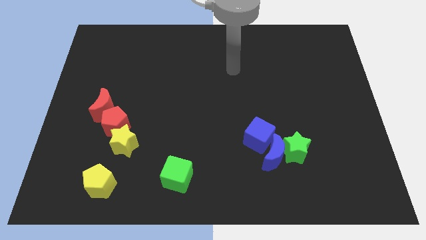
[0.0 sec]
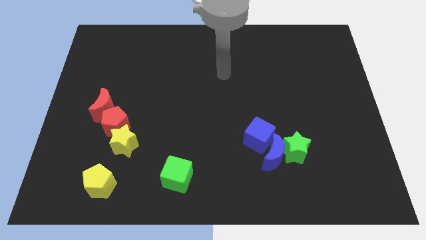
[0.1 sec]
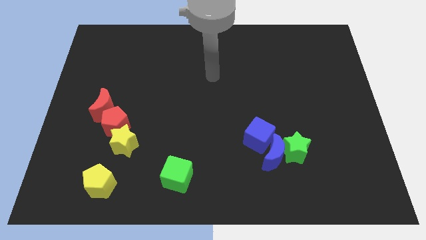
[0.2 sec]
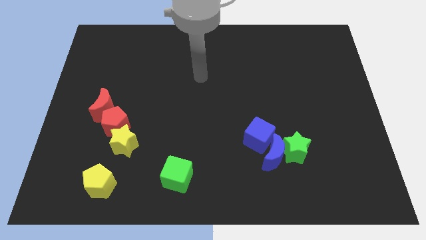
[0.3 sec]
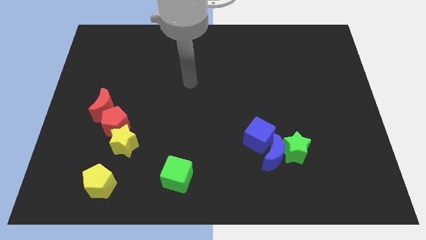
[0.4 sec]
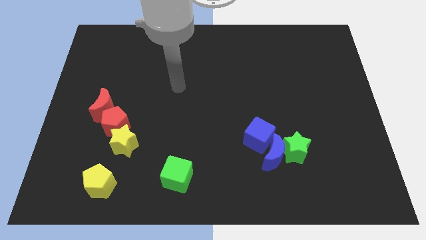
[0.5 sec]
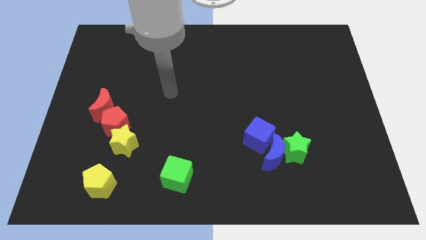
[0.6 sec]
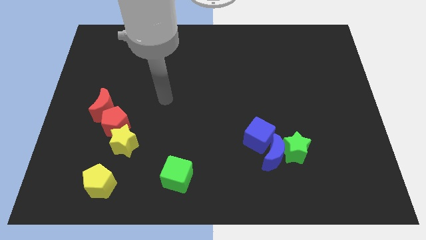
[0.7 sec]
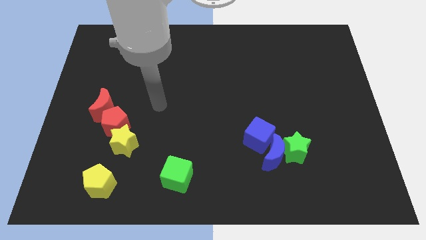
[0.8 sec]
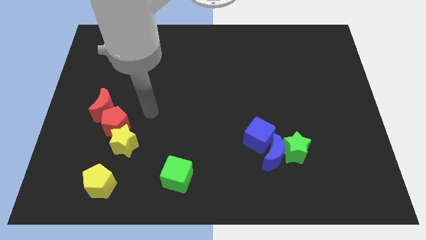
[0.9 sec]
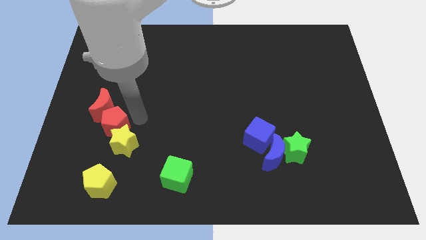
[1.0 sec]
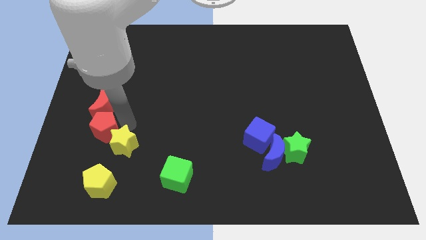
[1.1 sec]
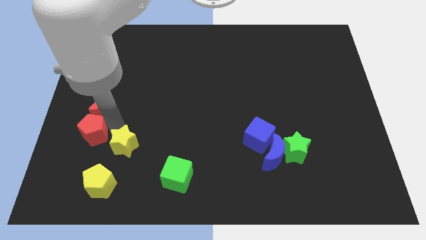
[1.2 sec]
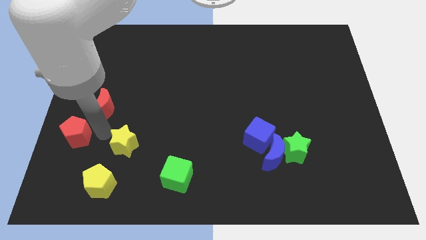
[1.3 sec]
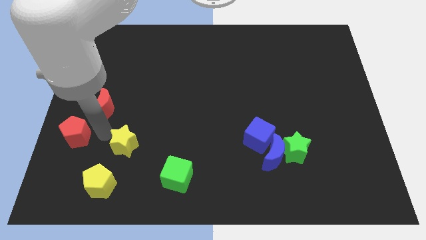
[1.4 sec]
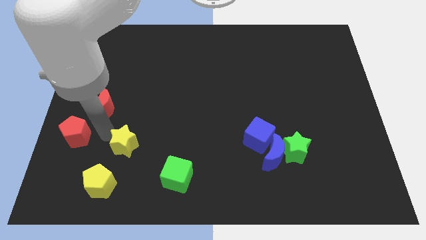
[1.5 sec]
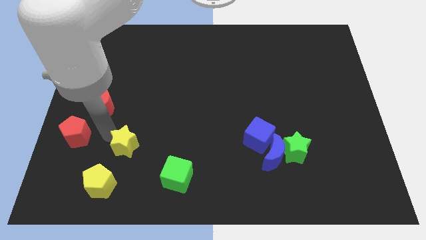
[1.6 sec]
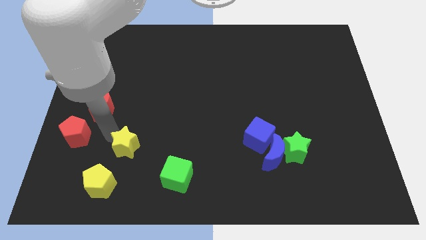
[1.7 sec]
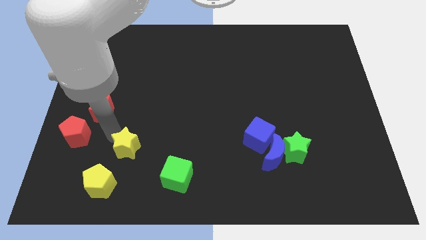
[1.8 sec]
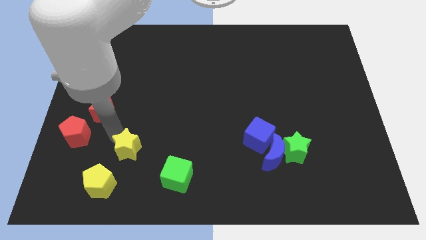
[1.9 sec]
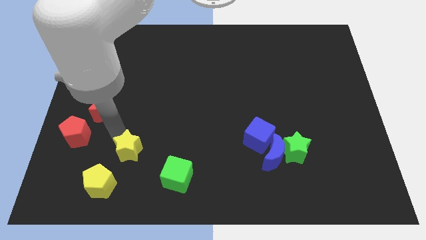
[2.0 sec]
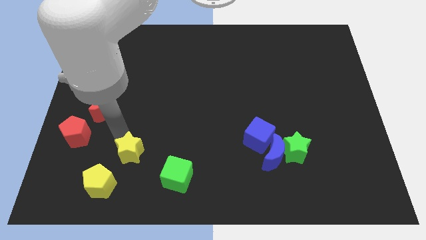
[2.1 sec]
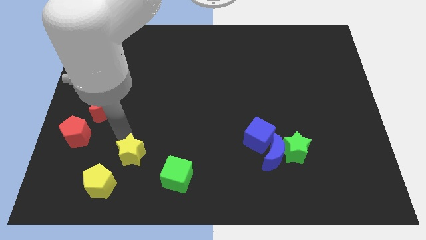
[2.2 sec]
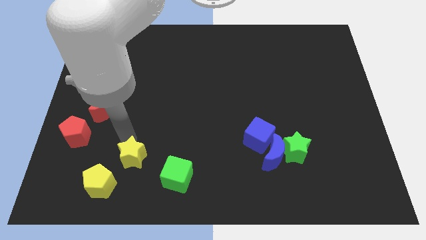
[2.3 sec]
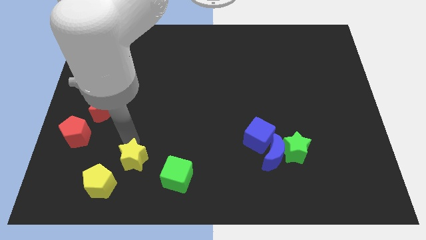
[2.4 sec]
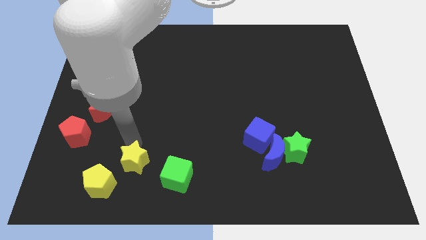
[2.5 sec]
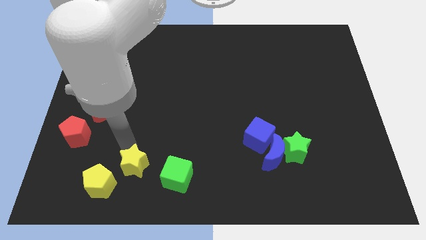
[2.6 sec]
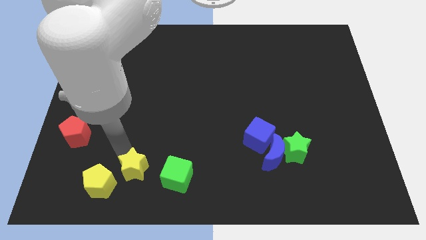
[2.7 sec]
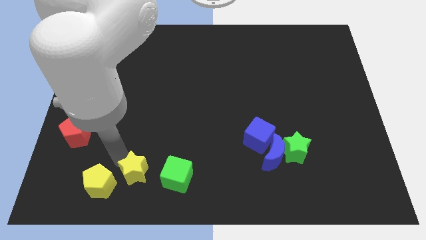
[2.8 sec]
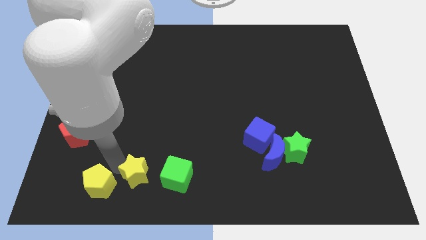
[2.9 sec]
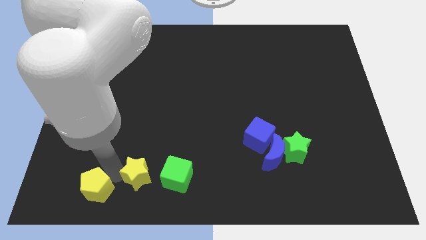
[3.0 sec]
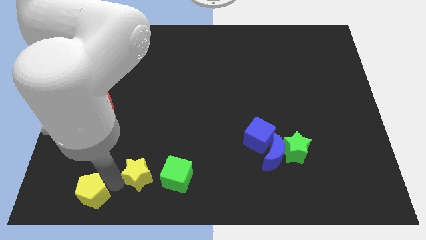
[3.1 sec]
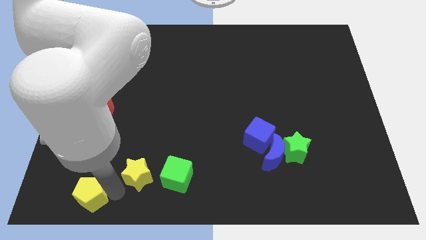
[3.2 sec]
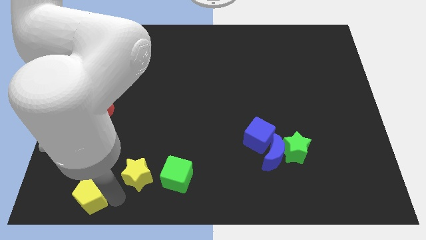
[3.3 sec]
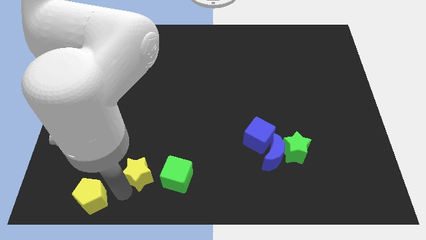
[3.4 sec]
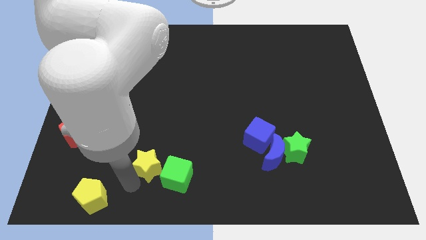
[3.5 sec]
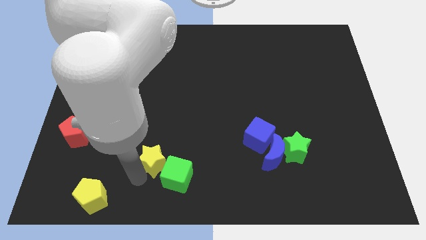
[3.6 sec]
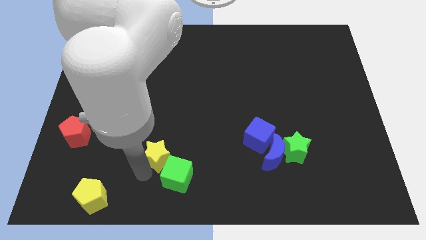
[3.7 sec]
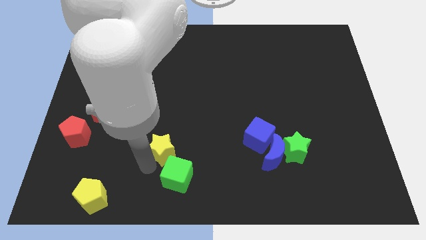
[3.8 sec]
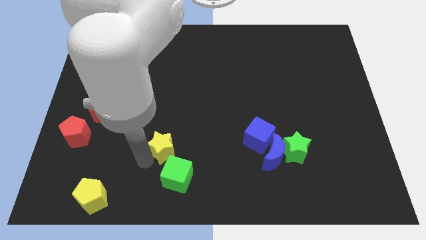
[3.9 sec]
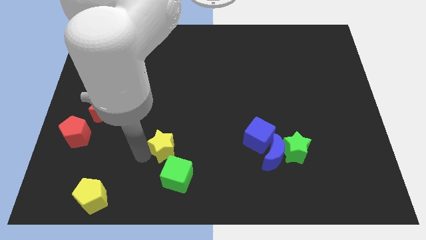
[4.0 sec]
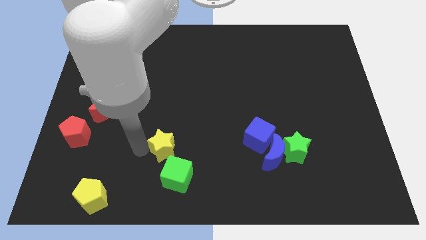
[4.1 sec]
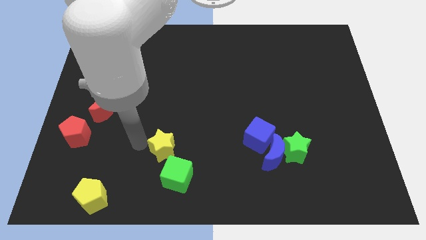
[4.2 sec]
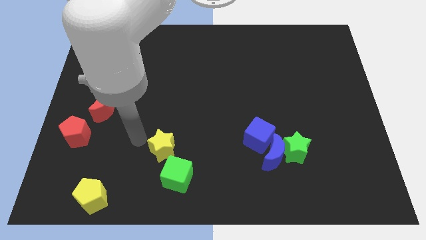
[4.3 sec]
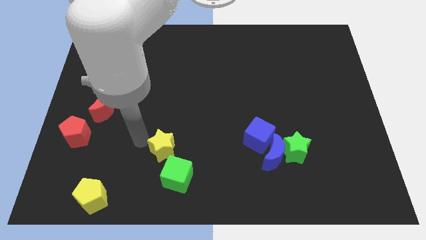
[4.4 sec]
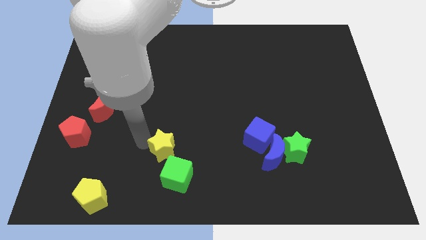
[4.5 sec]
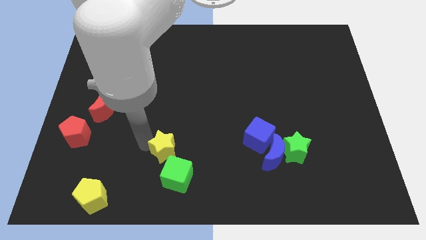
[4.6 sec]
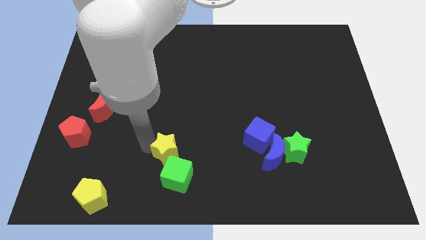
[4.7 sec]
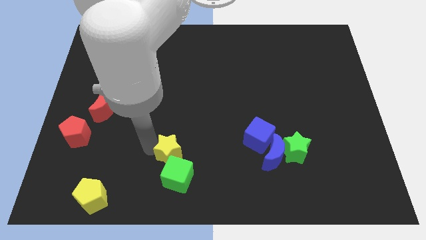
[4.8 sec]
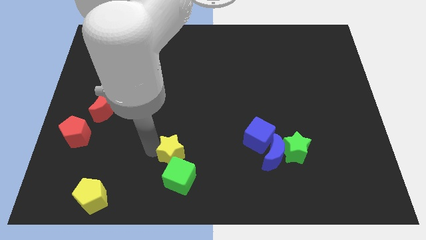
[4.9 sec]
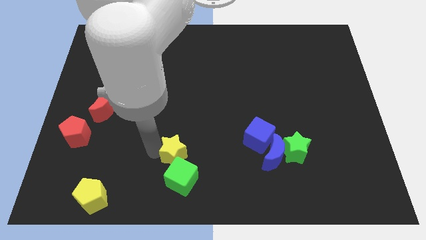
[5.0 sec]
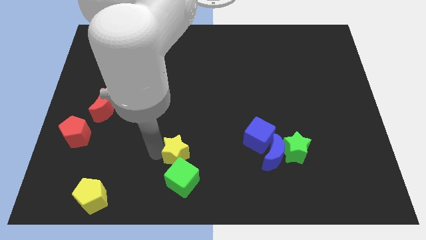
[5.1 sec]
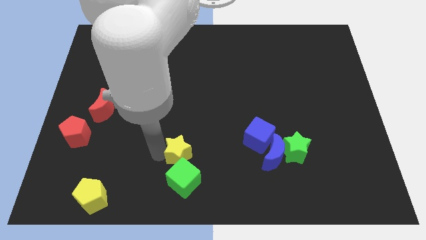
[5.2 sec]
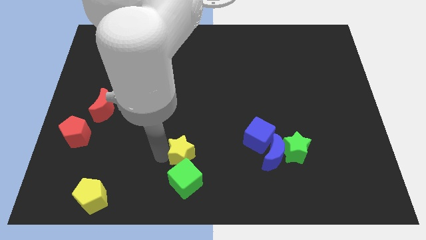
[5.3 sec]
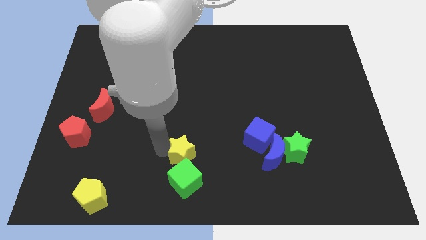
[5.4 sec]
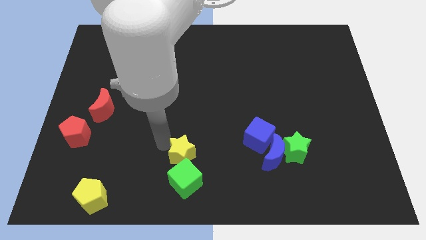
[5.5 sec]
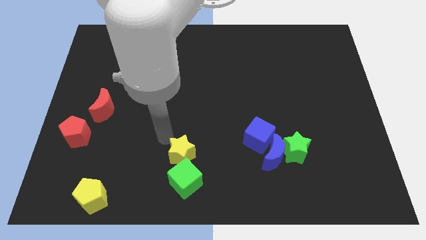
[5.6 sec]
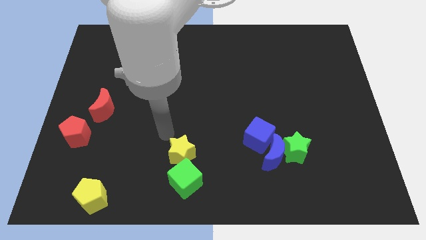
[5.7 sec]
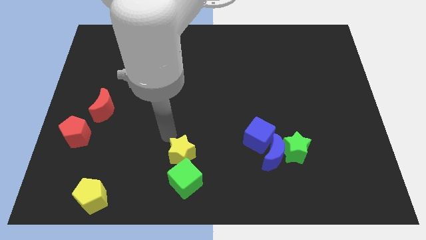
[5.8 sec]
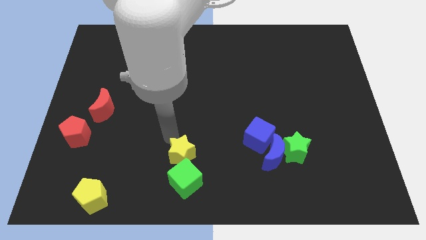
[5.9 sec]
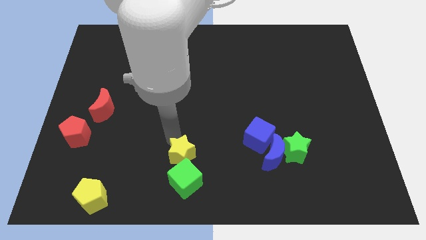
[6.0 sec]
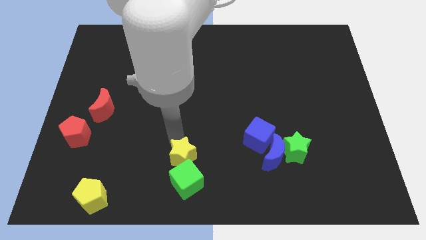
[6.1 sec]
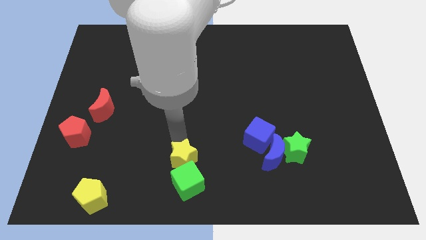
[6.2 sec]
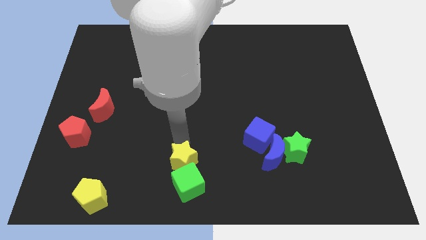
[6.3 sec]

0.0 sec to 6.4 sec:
push the yellow star to the bottom side

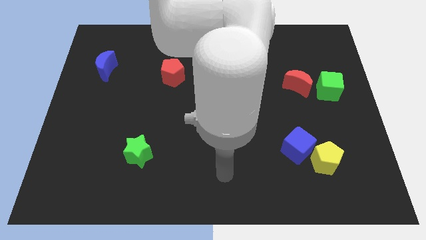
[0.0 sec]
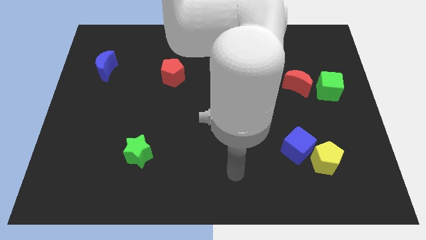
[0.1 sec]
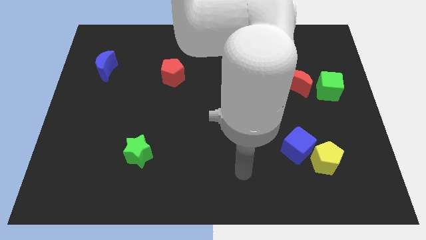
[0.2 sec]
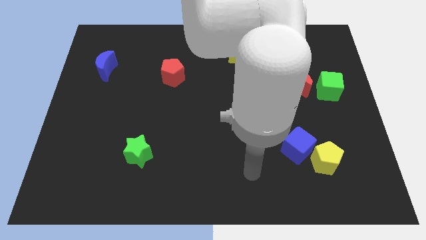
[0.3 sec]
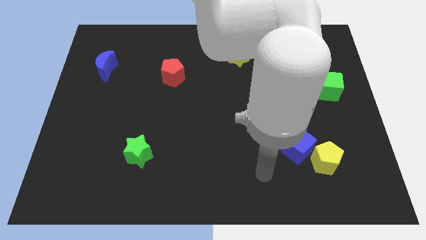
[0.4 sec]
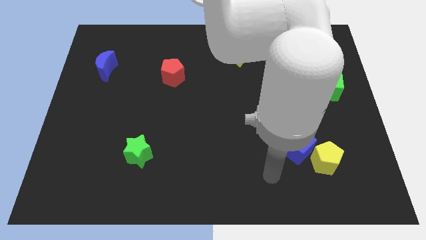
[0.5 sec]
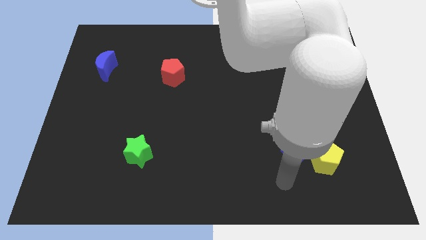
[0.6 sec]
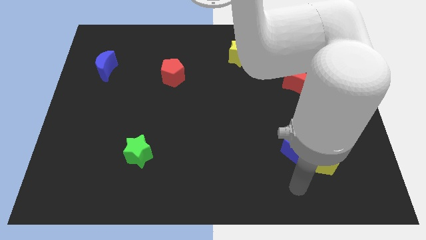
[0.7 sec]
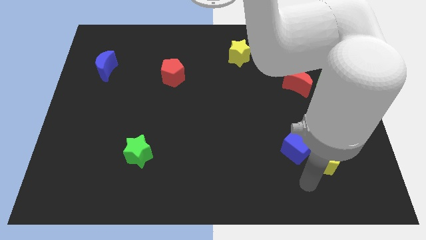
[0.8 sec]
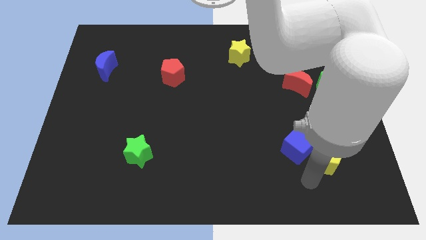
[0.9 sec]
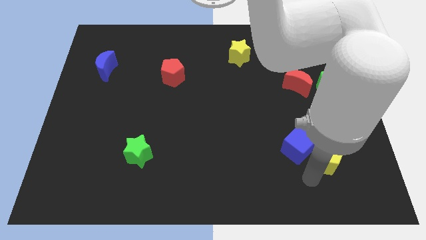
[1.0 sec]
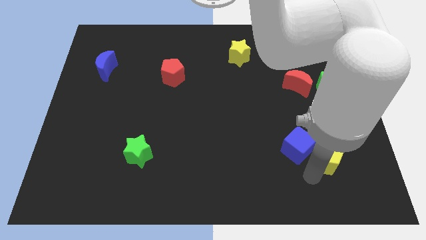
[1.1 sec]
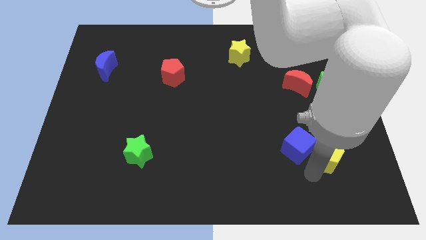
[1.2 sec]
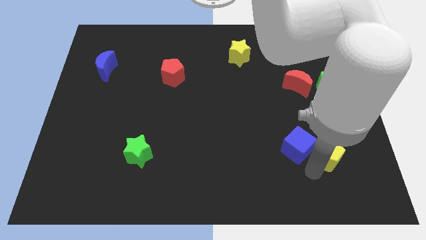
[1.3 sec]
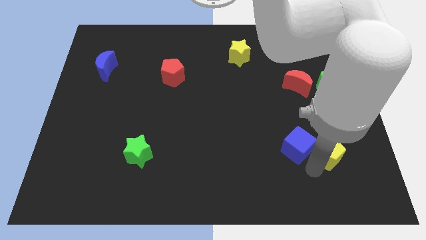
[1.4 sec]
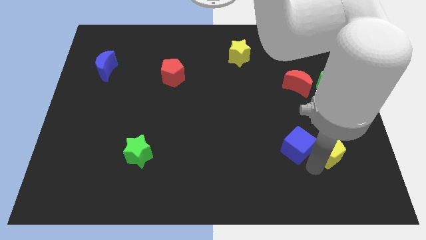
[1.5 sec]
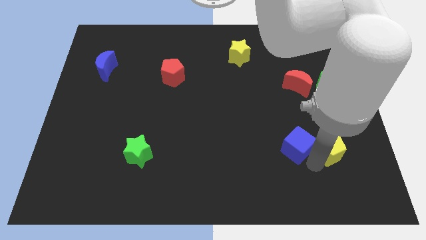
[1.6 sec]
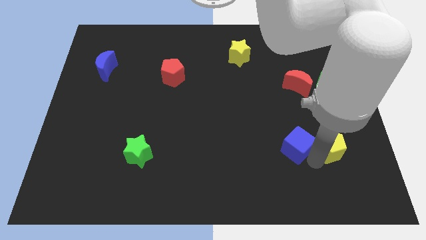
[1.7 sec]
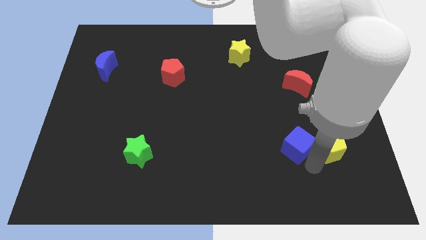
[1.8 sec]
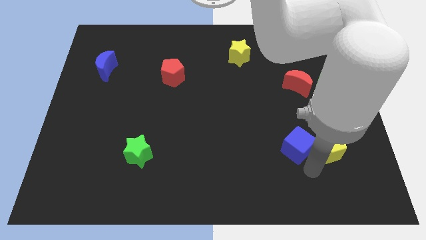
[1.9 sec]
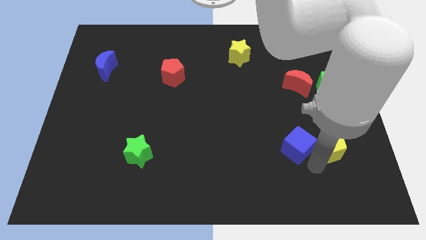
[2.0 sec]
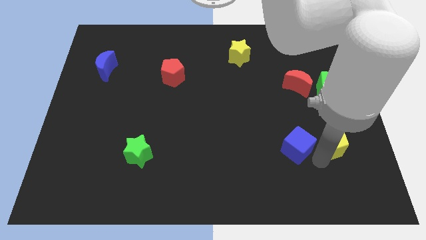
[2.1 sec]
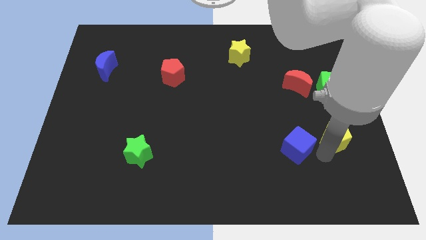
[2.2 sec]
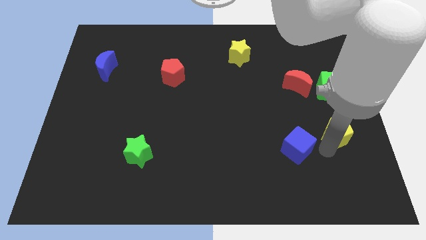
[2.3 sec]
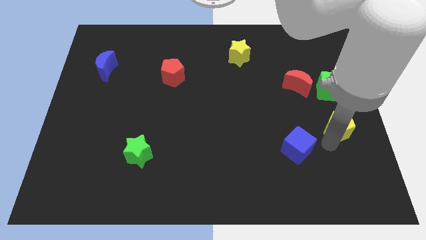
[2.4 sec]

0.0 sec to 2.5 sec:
put the yellow pentagon to the right side
